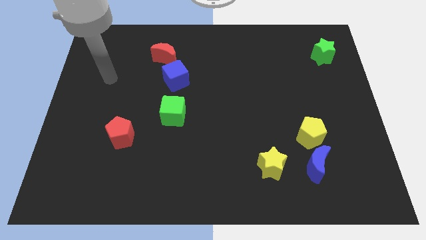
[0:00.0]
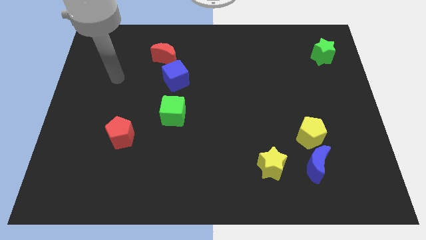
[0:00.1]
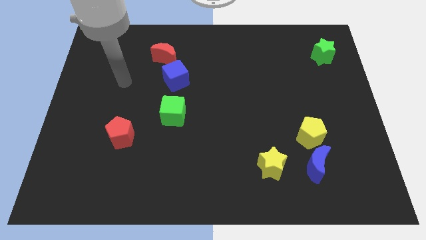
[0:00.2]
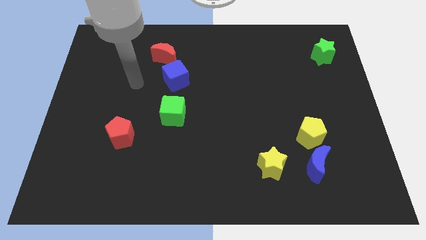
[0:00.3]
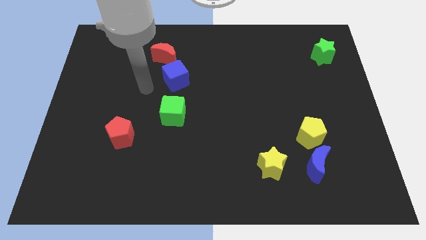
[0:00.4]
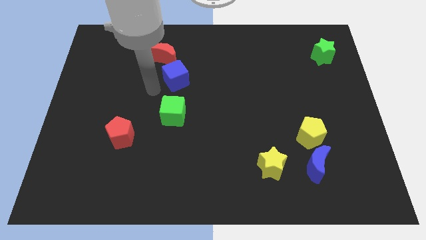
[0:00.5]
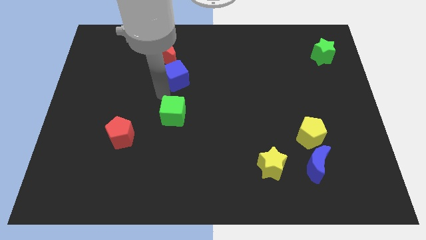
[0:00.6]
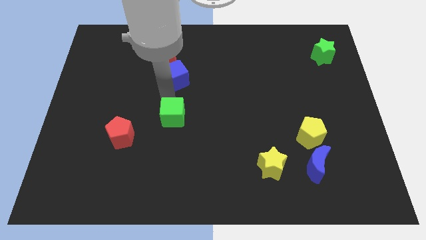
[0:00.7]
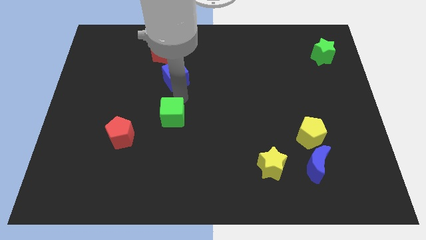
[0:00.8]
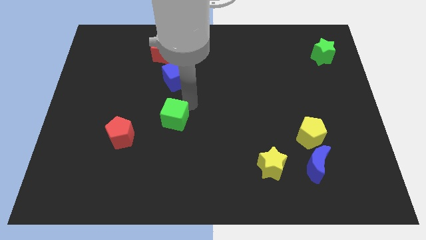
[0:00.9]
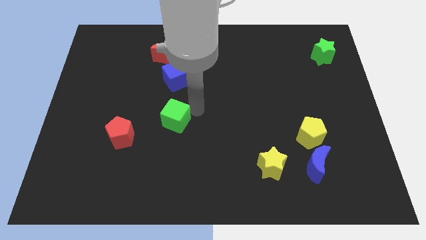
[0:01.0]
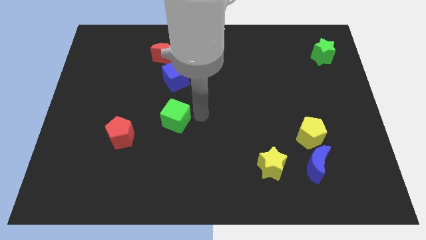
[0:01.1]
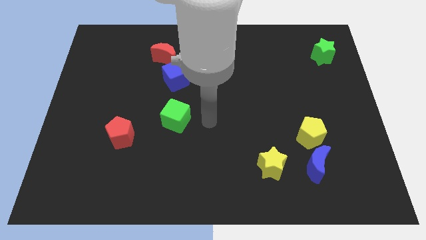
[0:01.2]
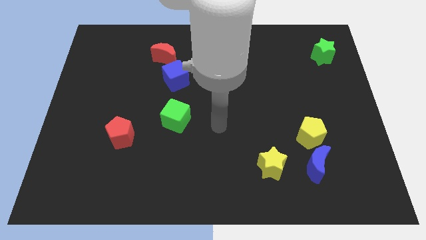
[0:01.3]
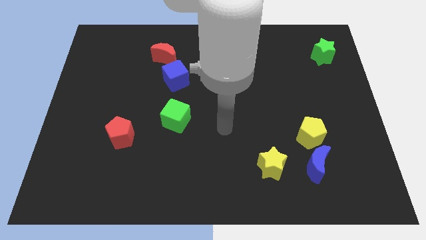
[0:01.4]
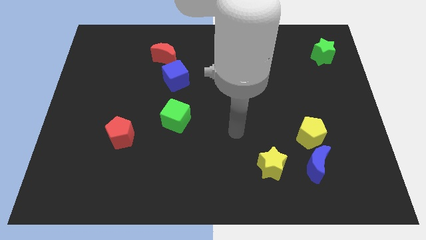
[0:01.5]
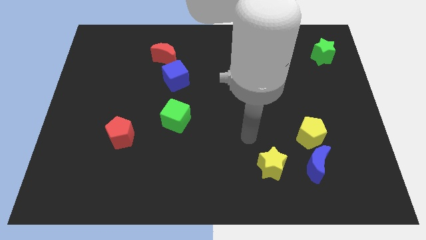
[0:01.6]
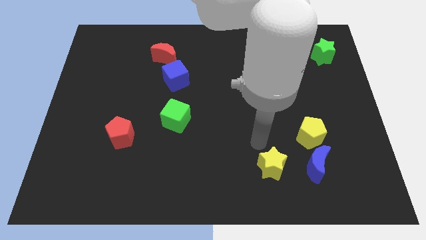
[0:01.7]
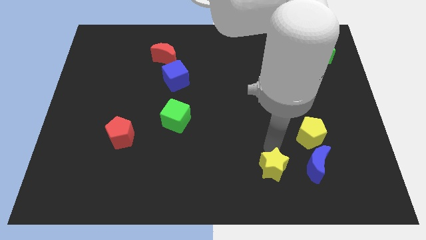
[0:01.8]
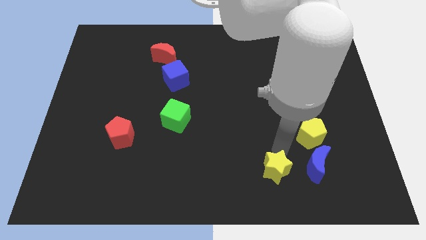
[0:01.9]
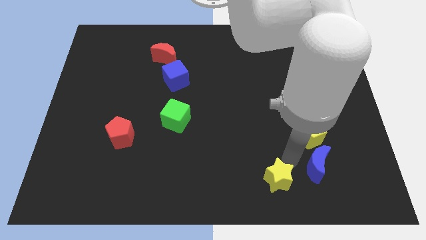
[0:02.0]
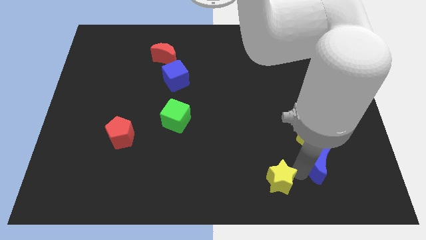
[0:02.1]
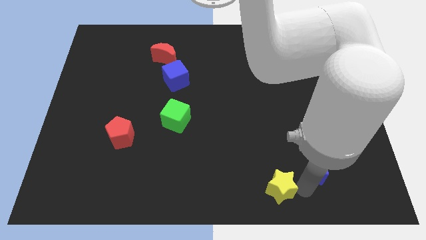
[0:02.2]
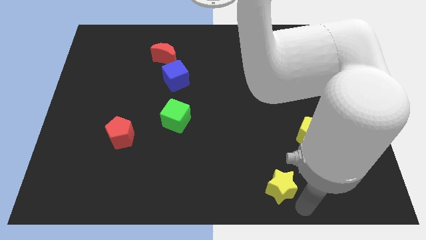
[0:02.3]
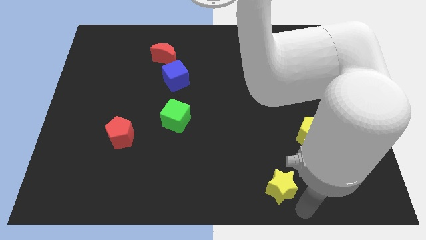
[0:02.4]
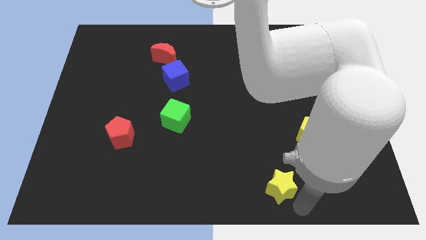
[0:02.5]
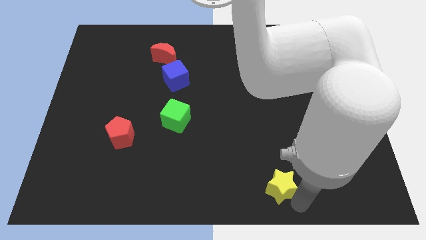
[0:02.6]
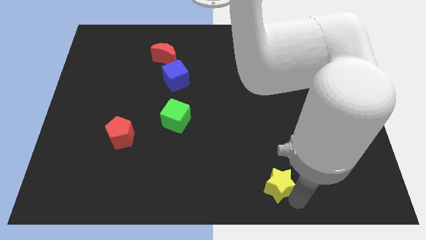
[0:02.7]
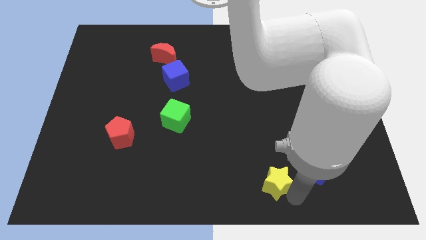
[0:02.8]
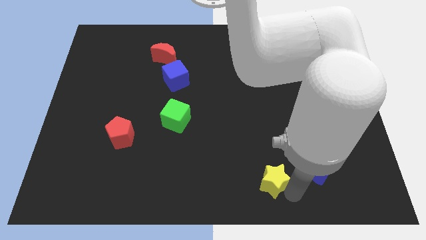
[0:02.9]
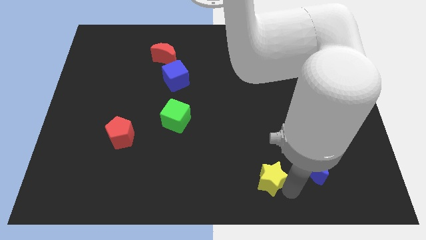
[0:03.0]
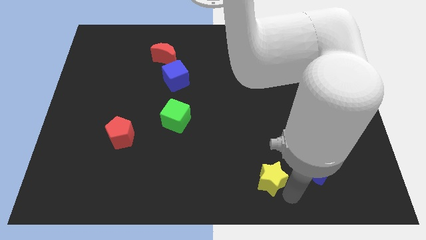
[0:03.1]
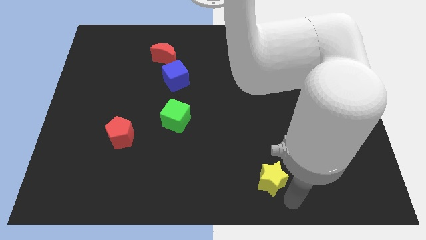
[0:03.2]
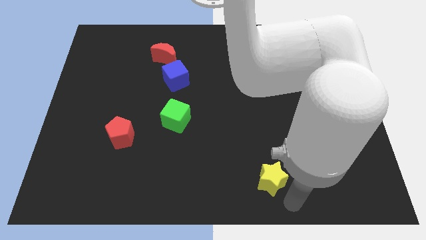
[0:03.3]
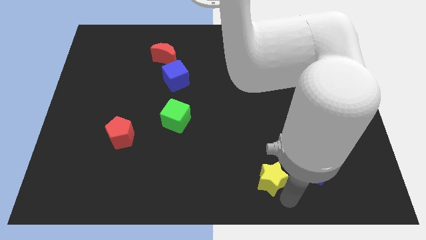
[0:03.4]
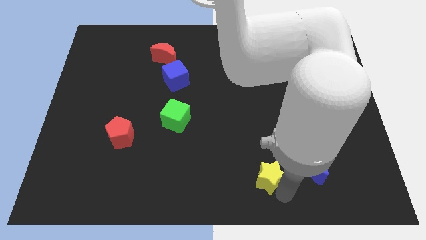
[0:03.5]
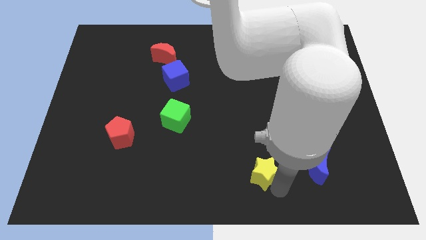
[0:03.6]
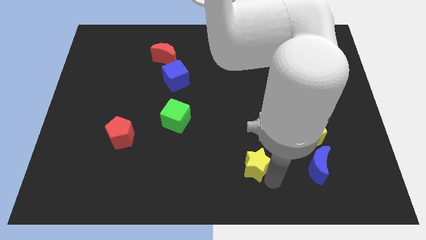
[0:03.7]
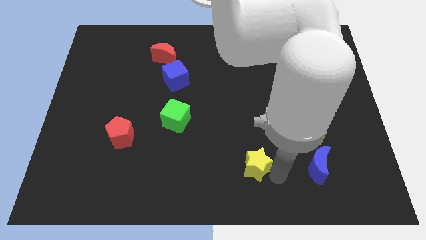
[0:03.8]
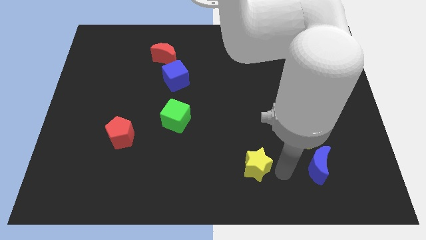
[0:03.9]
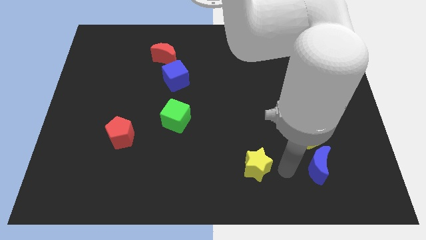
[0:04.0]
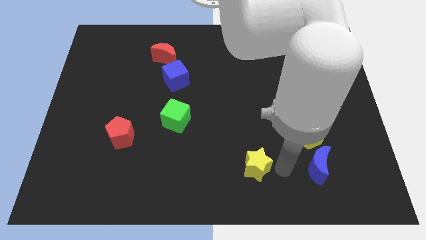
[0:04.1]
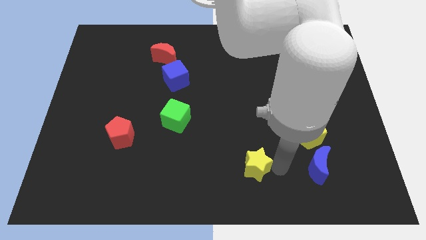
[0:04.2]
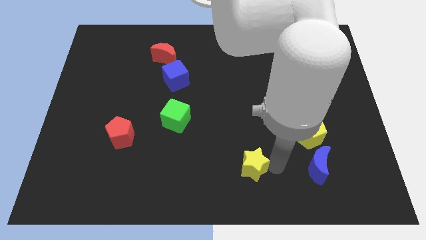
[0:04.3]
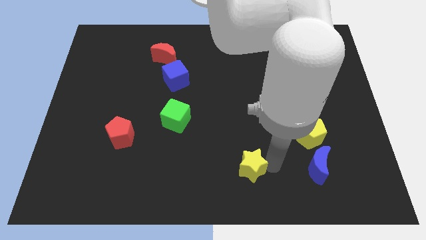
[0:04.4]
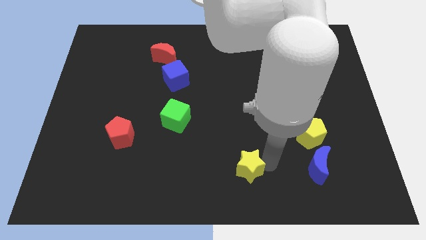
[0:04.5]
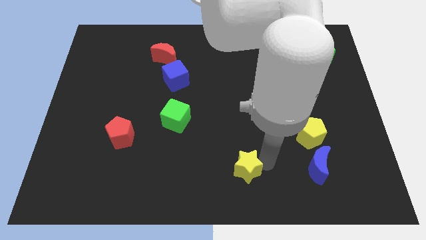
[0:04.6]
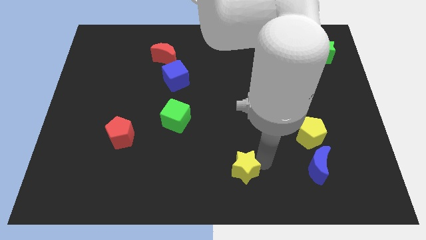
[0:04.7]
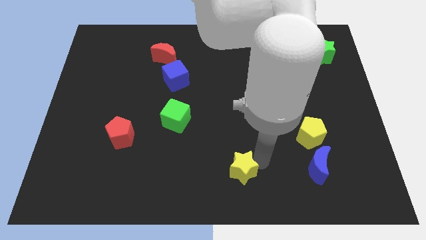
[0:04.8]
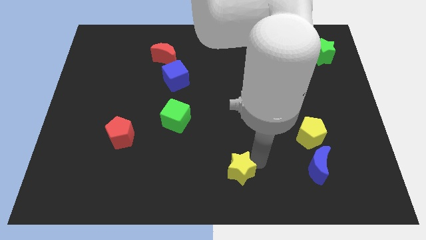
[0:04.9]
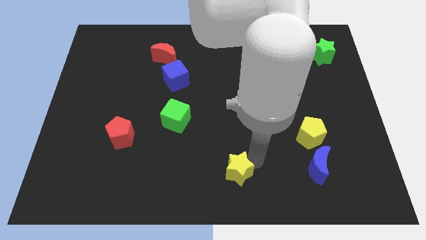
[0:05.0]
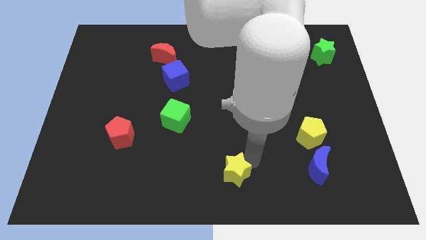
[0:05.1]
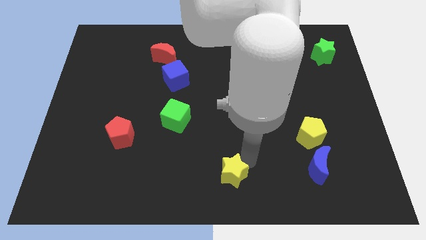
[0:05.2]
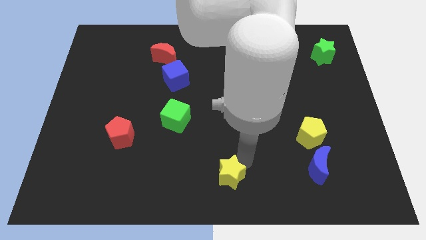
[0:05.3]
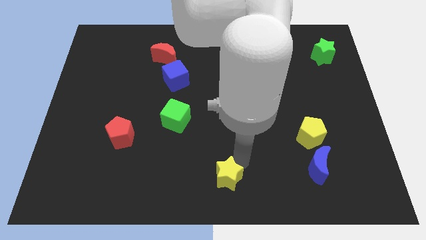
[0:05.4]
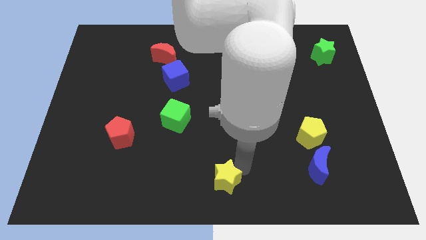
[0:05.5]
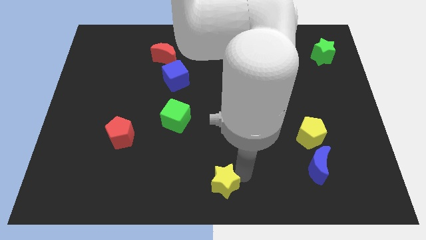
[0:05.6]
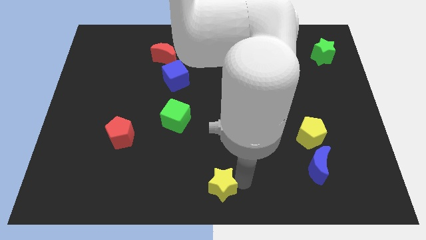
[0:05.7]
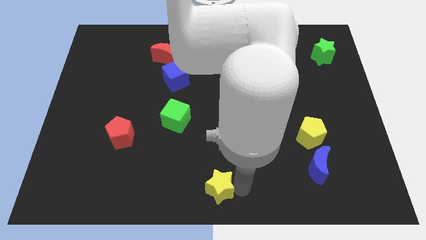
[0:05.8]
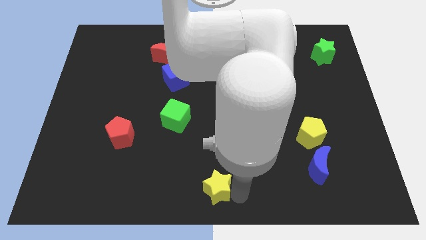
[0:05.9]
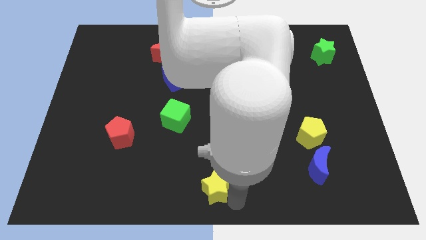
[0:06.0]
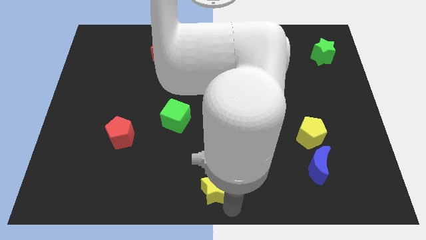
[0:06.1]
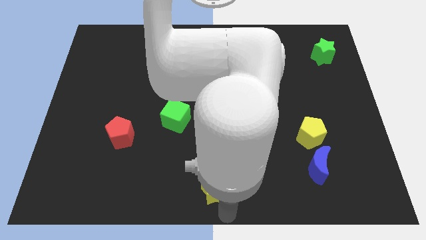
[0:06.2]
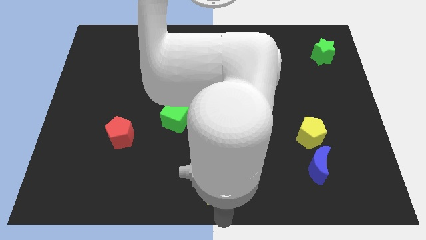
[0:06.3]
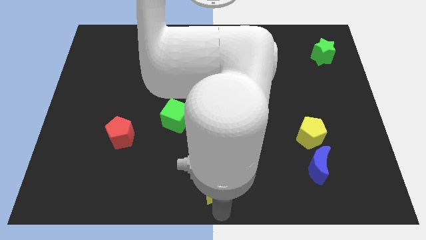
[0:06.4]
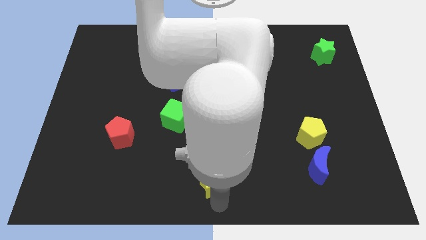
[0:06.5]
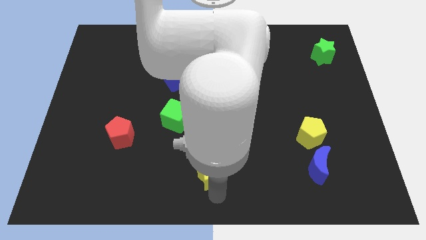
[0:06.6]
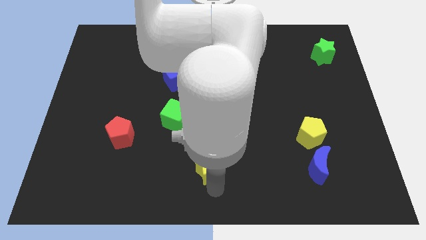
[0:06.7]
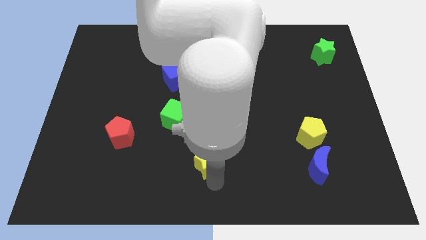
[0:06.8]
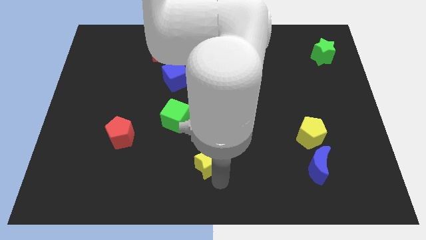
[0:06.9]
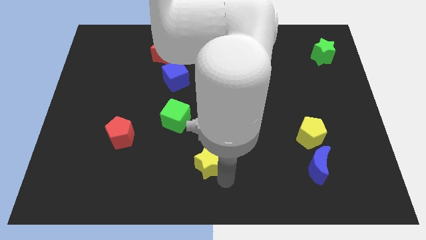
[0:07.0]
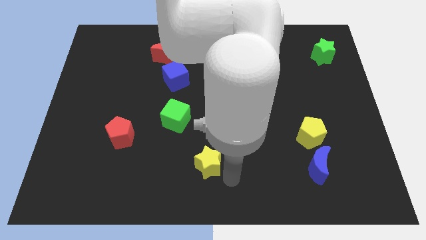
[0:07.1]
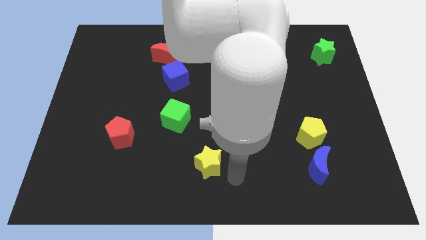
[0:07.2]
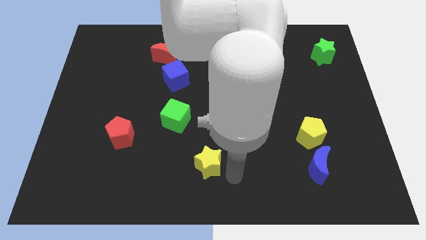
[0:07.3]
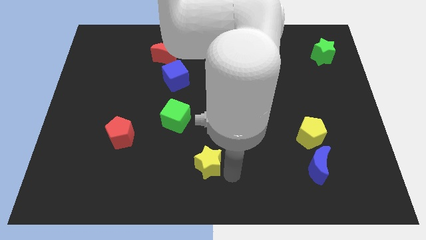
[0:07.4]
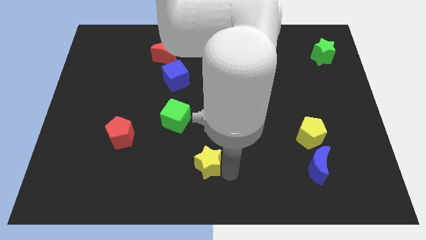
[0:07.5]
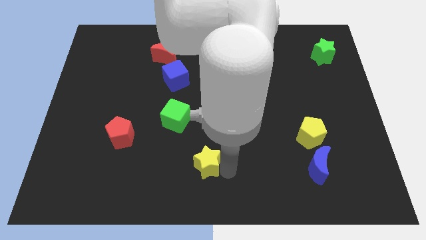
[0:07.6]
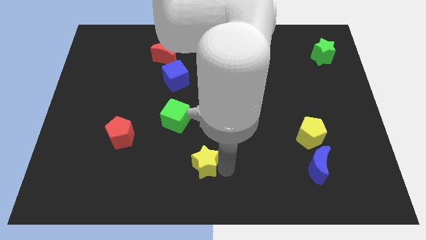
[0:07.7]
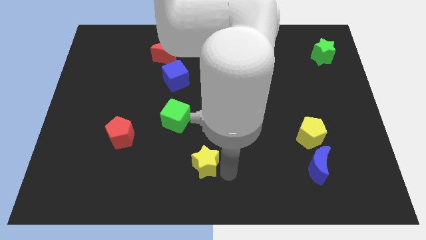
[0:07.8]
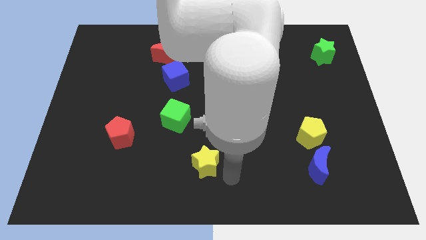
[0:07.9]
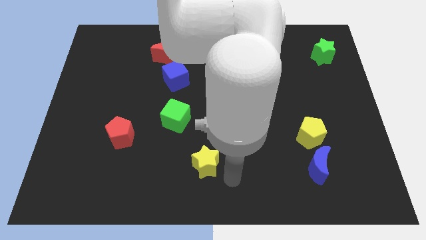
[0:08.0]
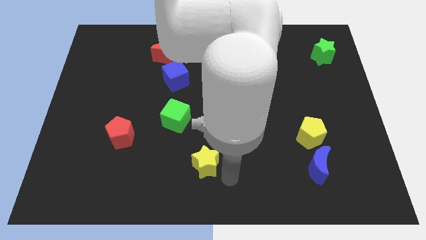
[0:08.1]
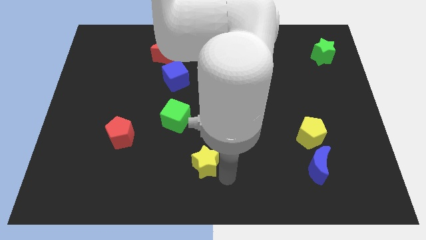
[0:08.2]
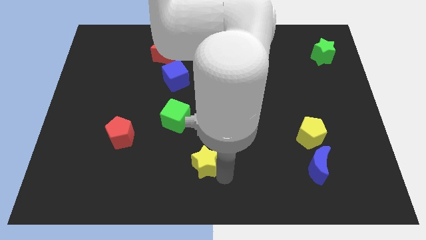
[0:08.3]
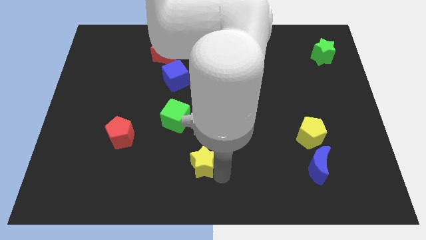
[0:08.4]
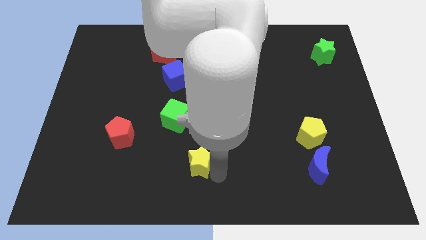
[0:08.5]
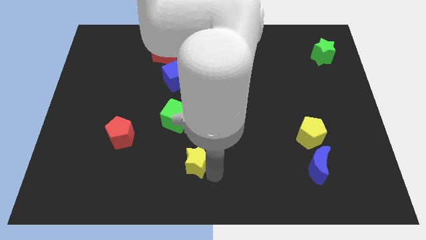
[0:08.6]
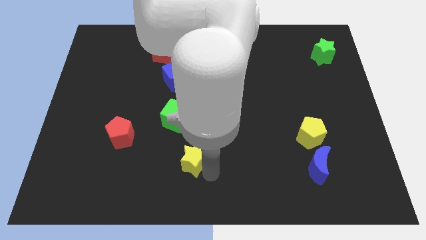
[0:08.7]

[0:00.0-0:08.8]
slide the yellow star to the bottom of the green cube
